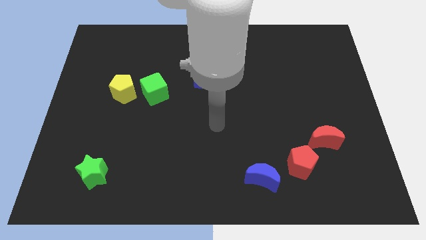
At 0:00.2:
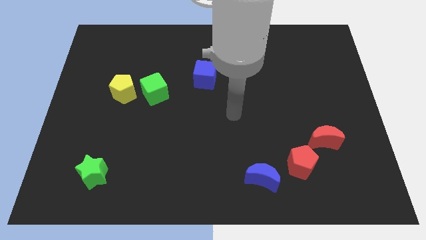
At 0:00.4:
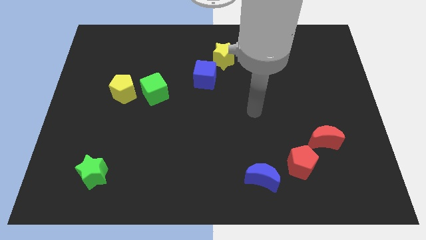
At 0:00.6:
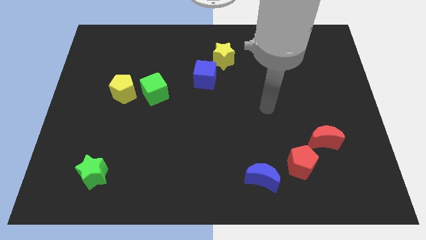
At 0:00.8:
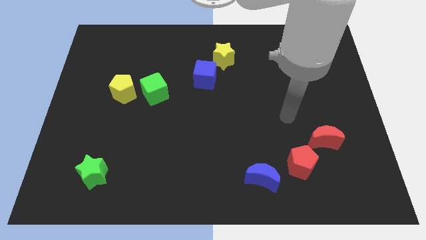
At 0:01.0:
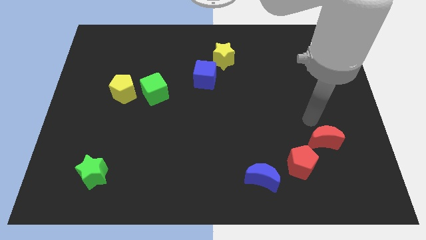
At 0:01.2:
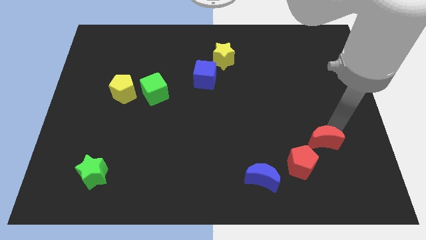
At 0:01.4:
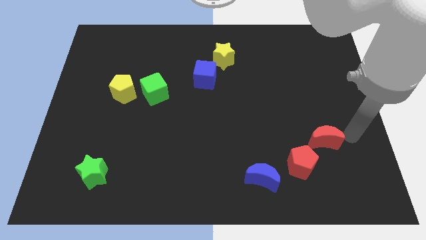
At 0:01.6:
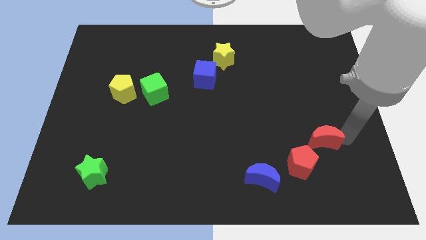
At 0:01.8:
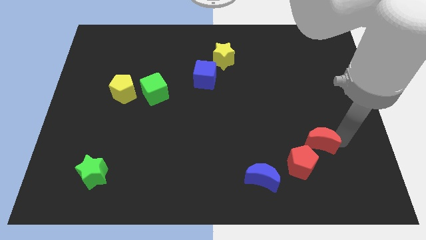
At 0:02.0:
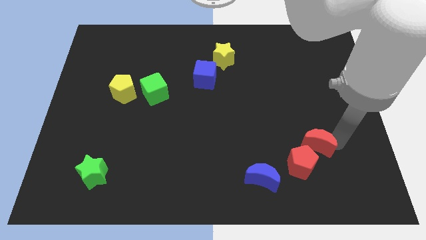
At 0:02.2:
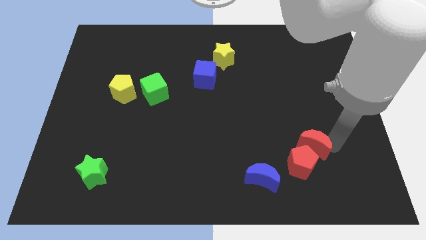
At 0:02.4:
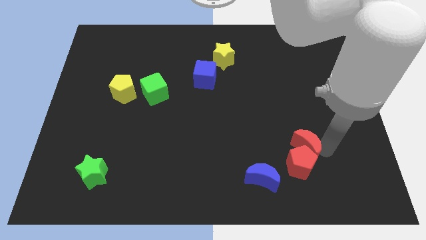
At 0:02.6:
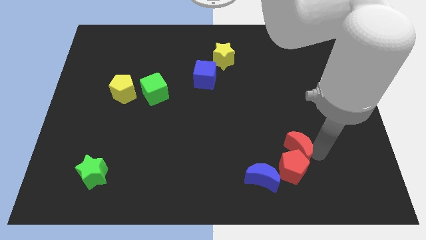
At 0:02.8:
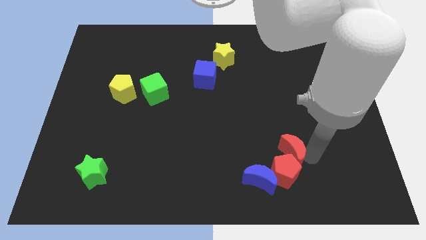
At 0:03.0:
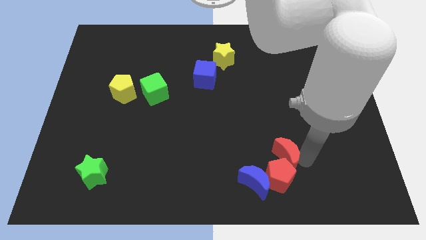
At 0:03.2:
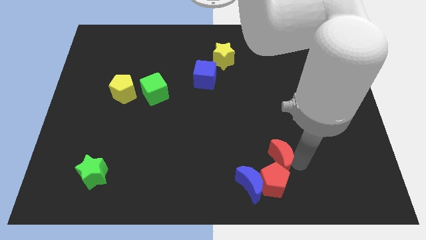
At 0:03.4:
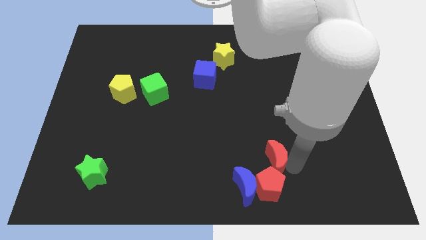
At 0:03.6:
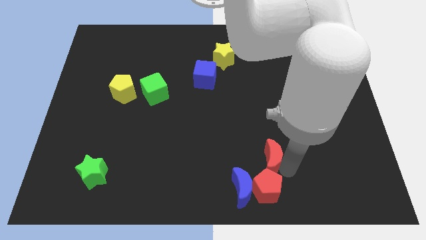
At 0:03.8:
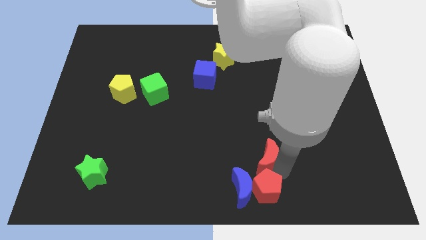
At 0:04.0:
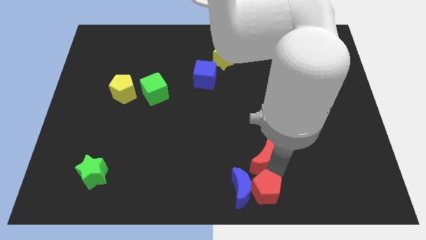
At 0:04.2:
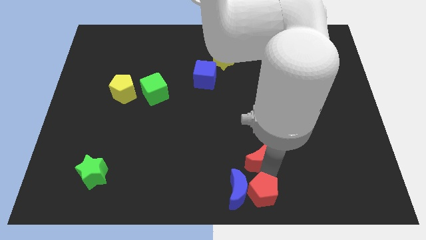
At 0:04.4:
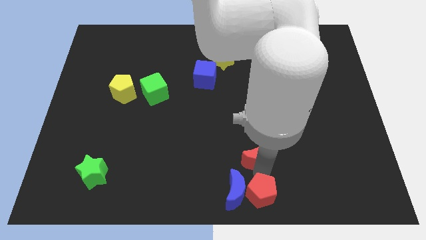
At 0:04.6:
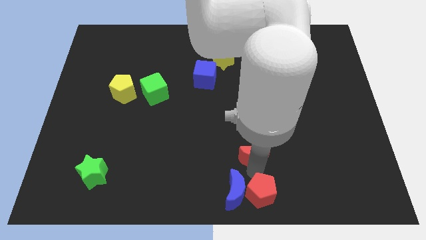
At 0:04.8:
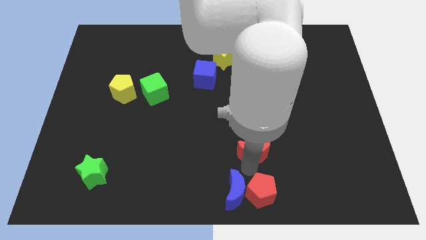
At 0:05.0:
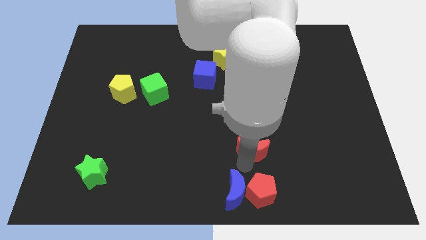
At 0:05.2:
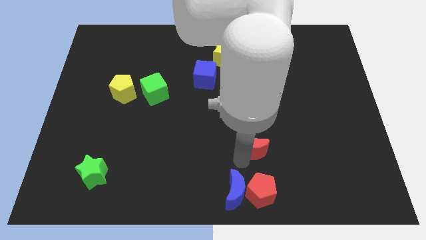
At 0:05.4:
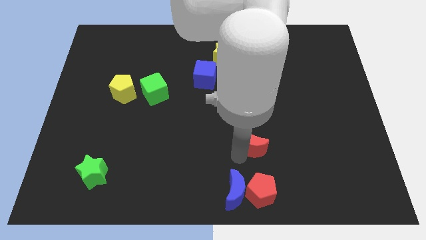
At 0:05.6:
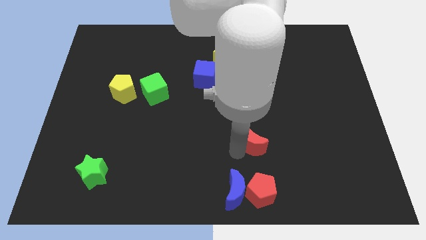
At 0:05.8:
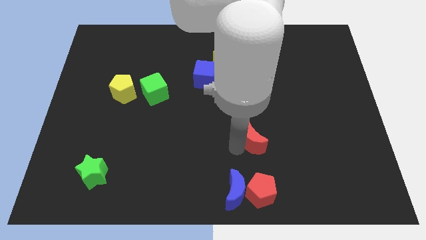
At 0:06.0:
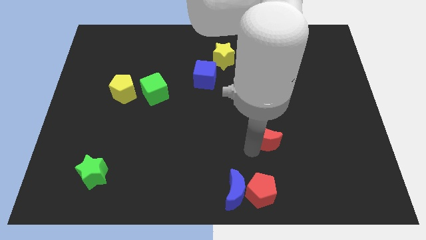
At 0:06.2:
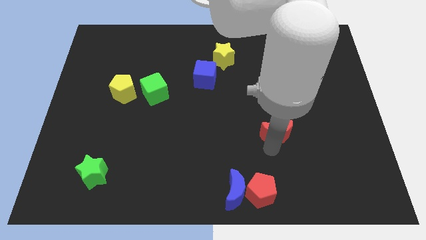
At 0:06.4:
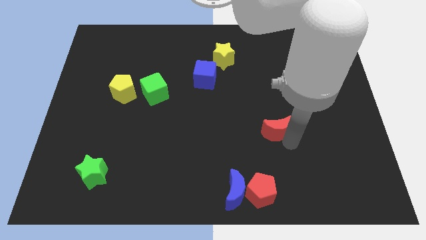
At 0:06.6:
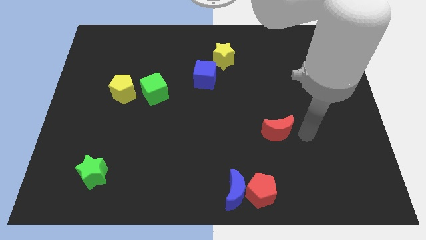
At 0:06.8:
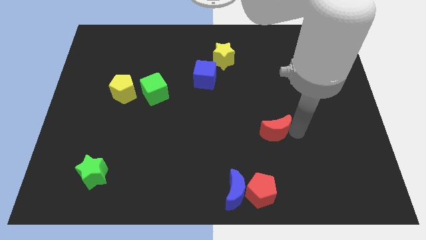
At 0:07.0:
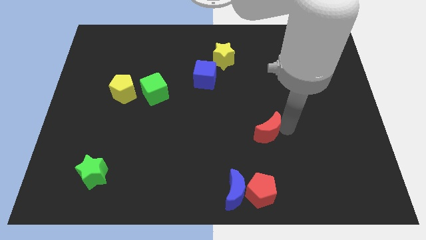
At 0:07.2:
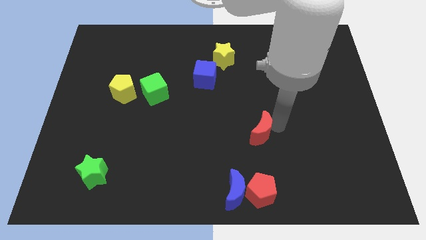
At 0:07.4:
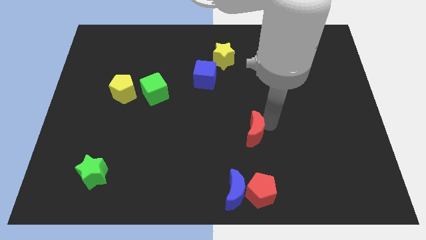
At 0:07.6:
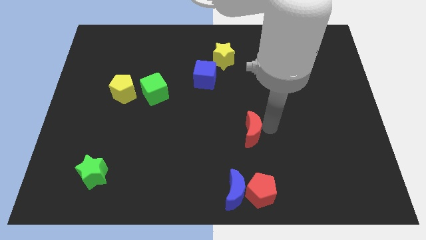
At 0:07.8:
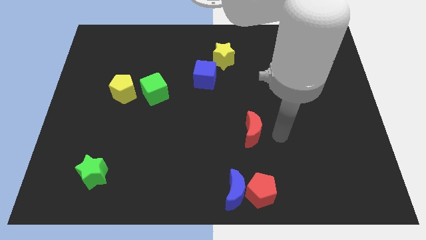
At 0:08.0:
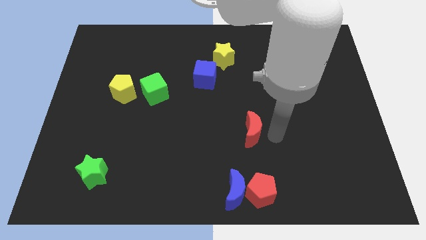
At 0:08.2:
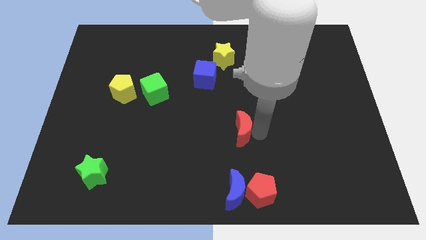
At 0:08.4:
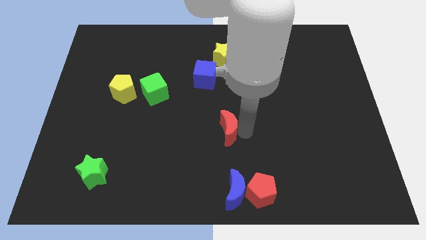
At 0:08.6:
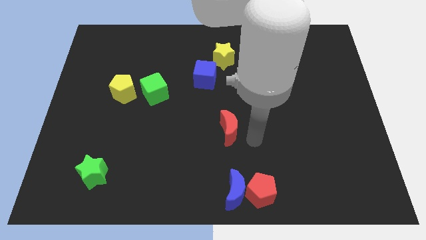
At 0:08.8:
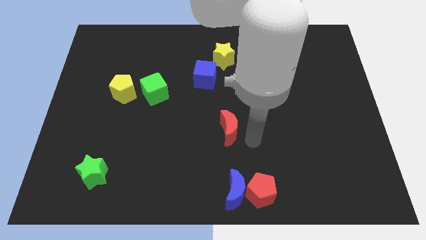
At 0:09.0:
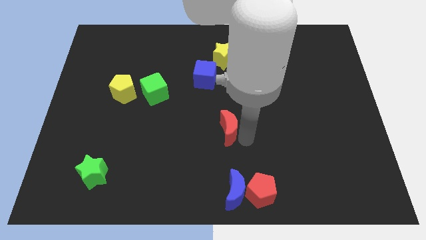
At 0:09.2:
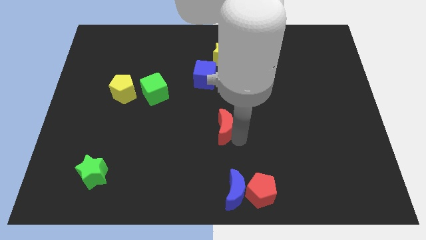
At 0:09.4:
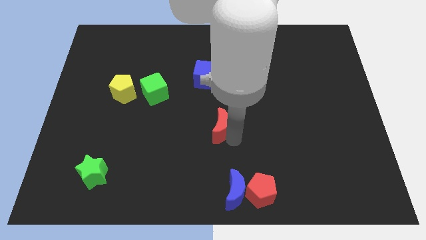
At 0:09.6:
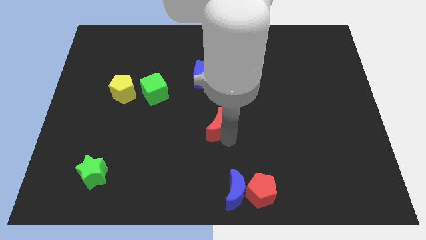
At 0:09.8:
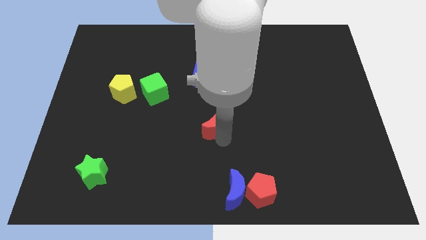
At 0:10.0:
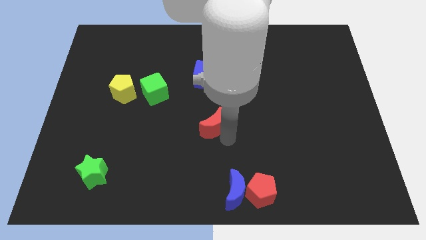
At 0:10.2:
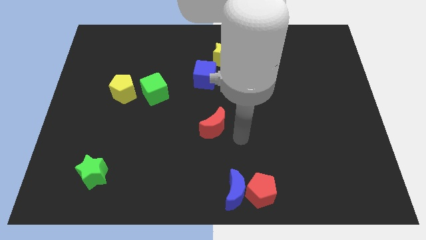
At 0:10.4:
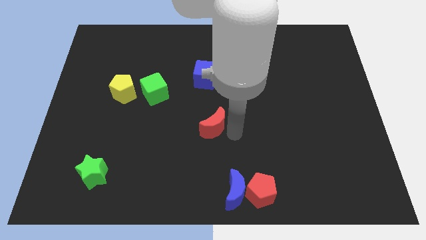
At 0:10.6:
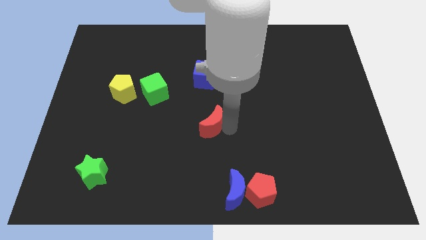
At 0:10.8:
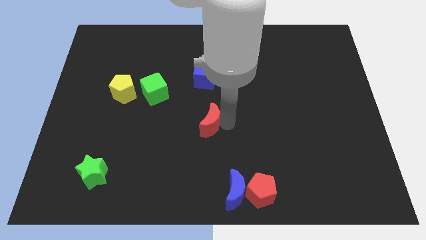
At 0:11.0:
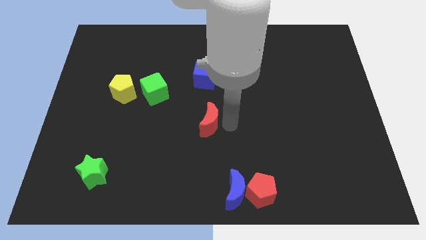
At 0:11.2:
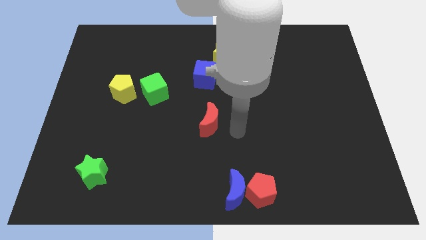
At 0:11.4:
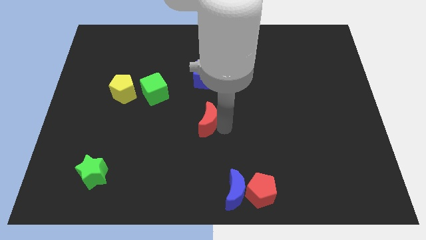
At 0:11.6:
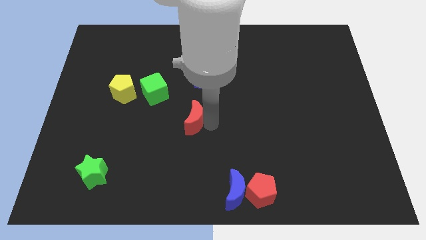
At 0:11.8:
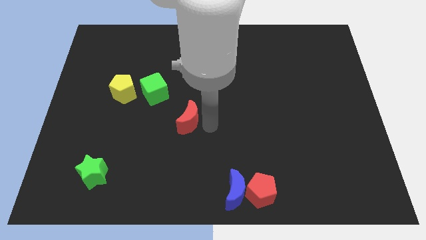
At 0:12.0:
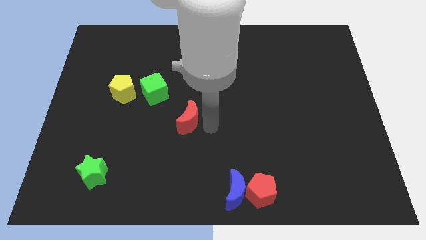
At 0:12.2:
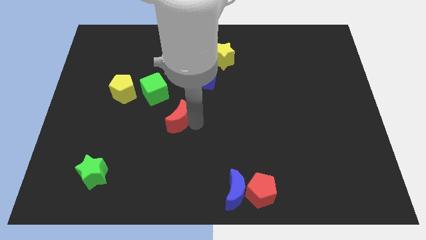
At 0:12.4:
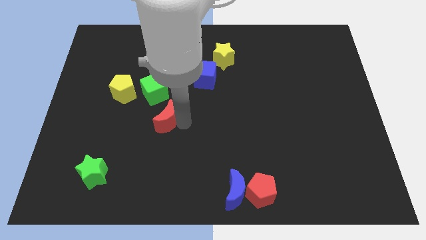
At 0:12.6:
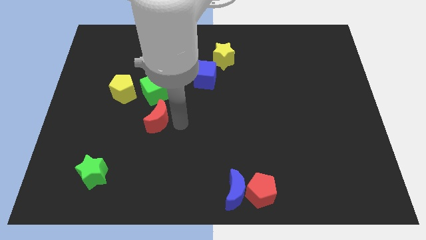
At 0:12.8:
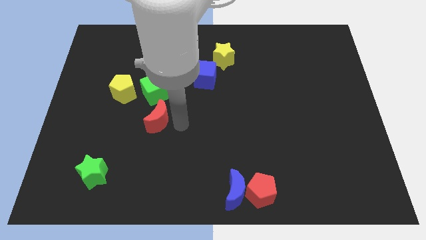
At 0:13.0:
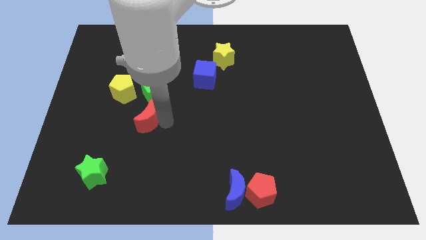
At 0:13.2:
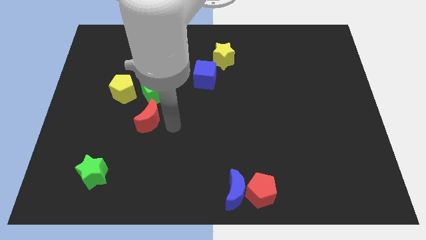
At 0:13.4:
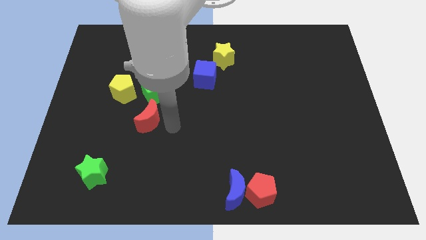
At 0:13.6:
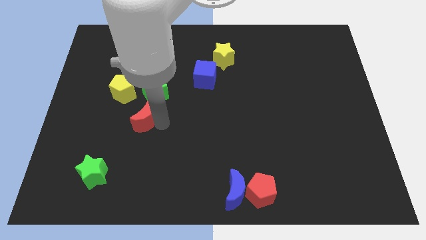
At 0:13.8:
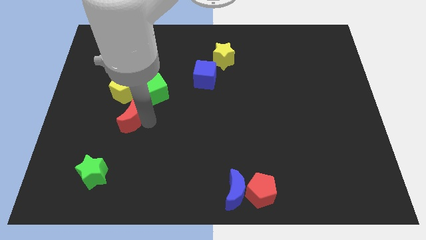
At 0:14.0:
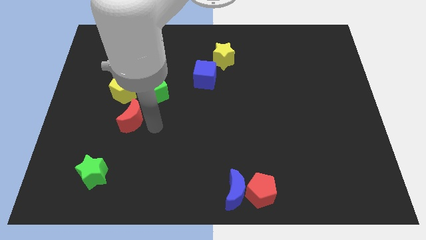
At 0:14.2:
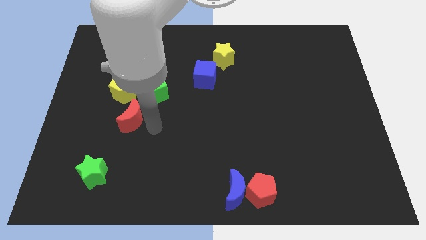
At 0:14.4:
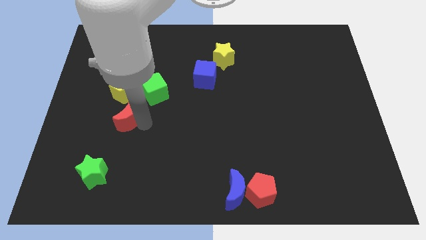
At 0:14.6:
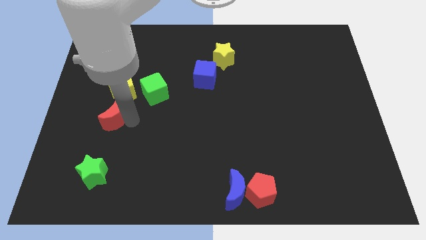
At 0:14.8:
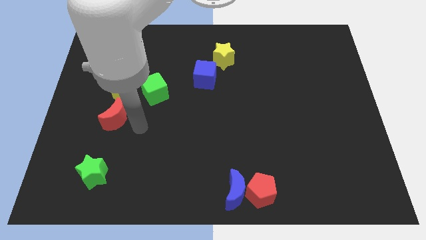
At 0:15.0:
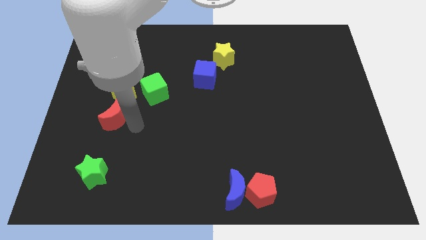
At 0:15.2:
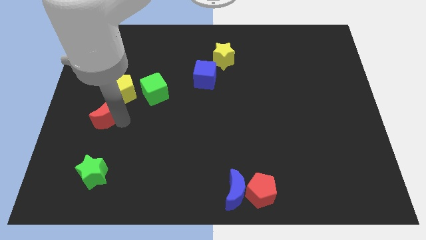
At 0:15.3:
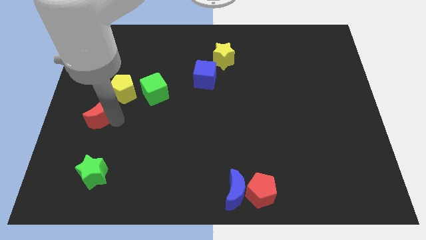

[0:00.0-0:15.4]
slide the red moon to the center left

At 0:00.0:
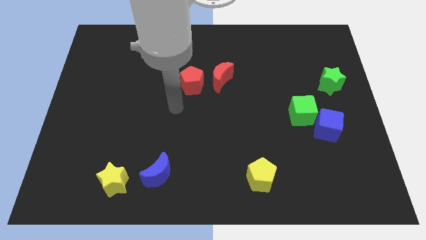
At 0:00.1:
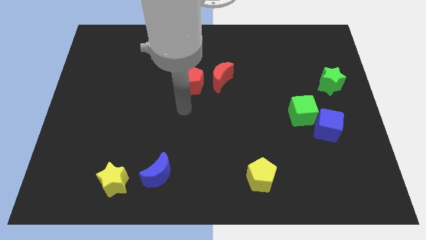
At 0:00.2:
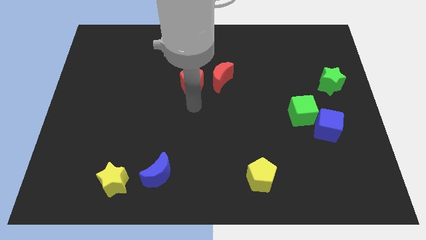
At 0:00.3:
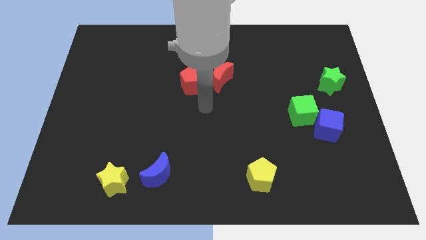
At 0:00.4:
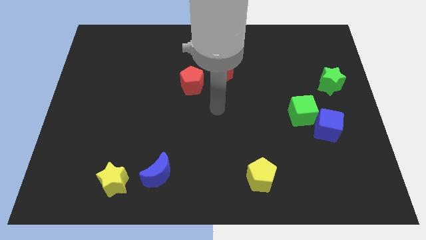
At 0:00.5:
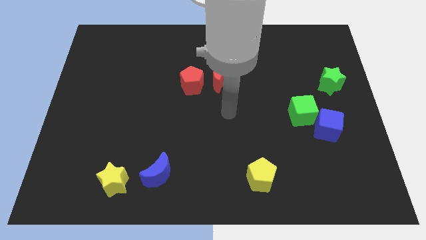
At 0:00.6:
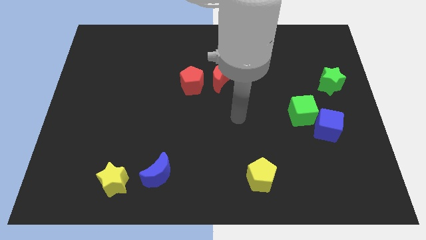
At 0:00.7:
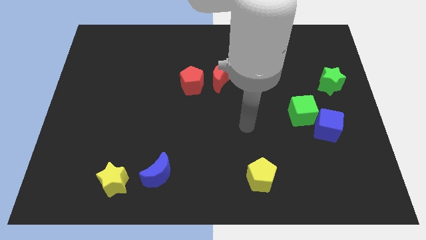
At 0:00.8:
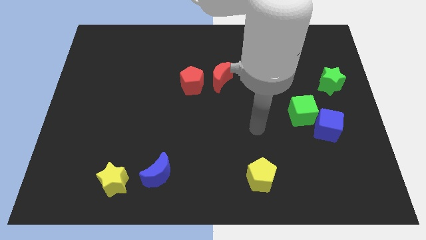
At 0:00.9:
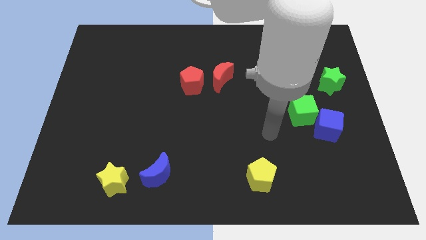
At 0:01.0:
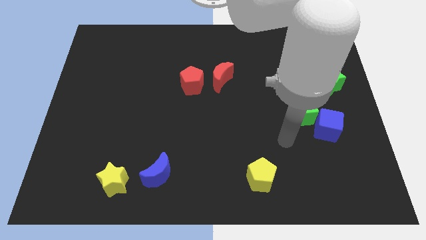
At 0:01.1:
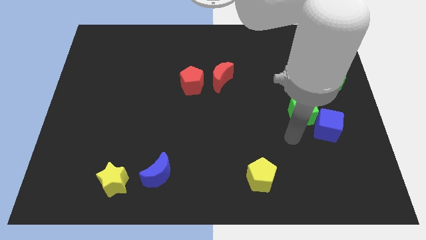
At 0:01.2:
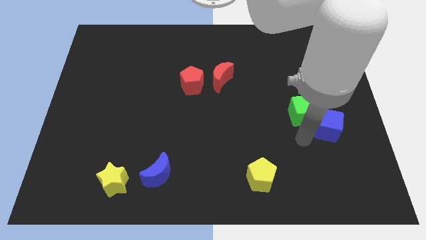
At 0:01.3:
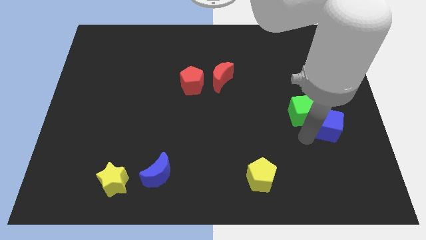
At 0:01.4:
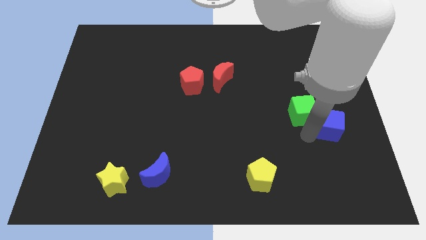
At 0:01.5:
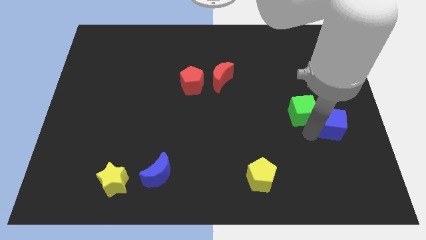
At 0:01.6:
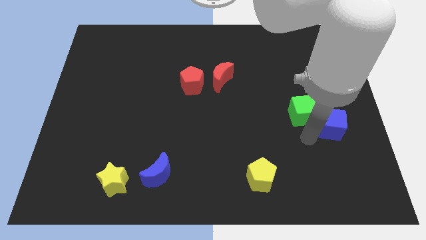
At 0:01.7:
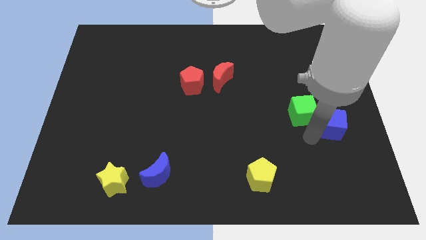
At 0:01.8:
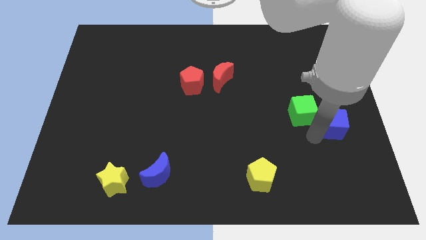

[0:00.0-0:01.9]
slide the blue cube to the right side of the board
